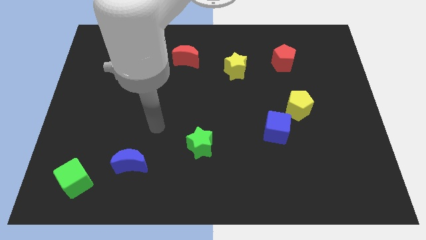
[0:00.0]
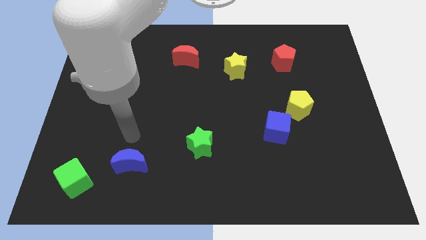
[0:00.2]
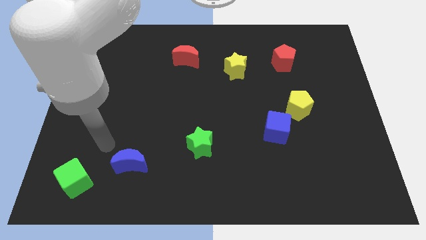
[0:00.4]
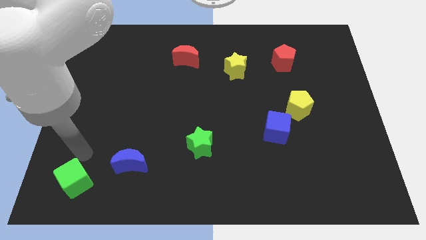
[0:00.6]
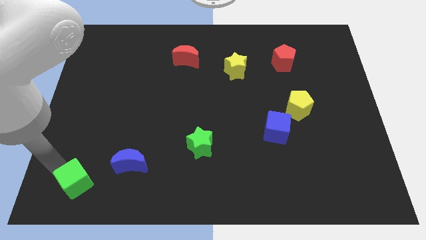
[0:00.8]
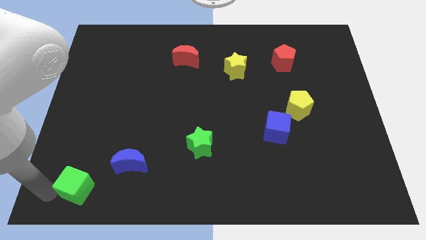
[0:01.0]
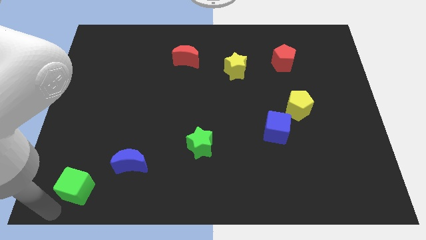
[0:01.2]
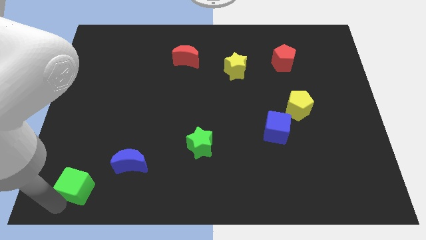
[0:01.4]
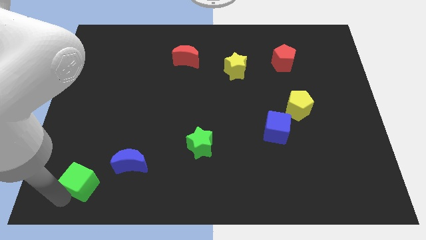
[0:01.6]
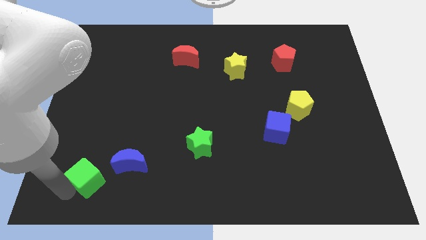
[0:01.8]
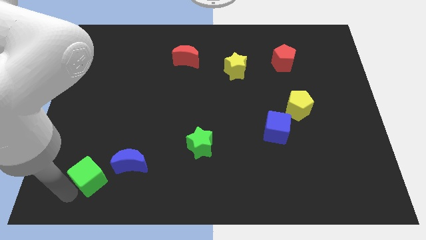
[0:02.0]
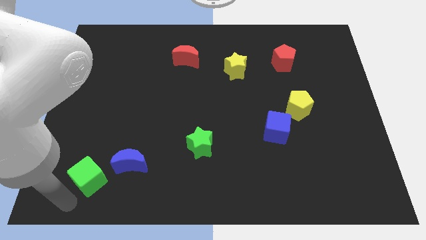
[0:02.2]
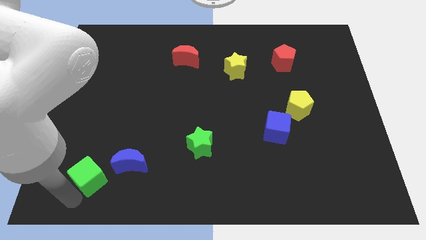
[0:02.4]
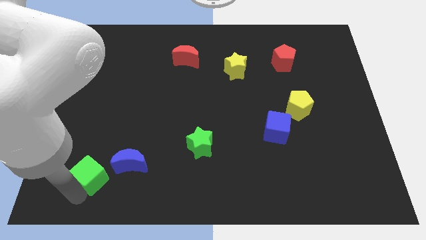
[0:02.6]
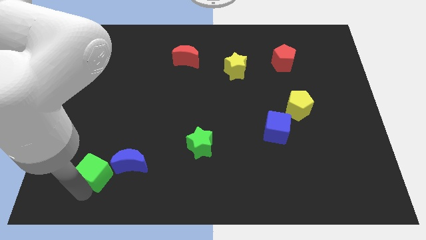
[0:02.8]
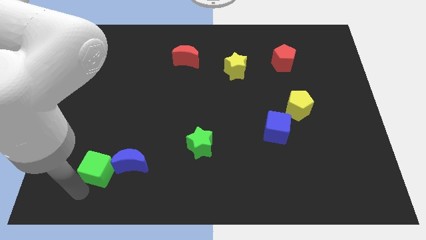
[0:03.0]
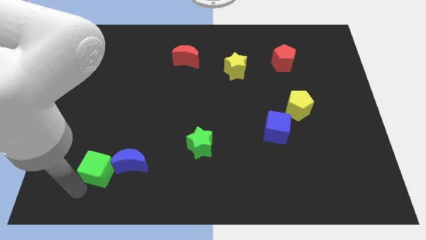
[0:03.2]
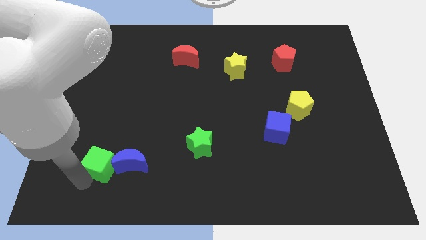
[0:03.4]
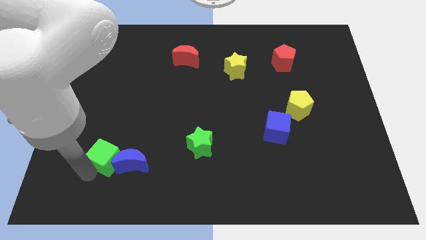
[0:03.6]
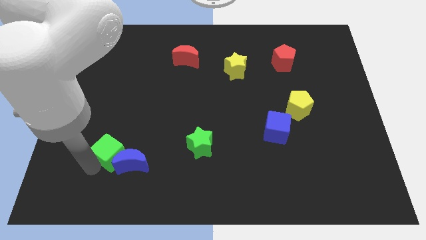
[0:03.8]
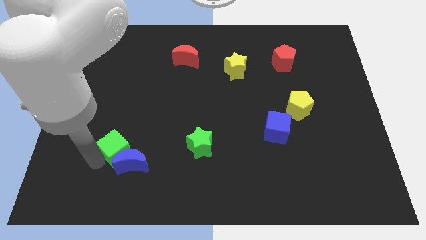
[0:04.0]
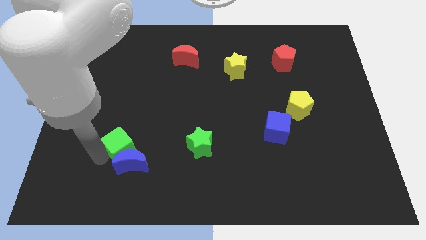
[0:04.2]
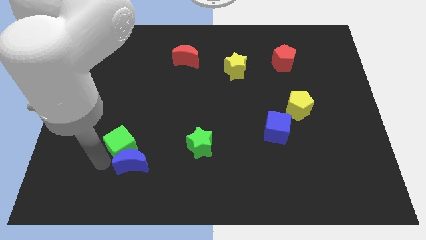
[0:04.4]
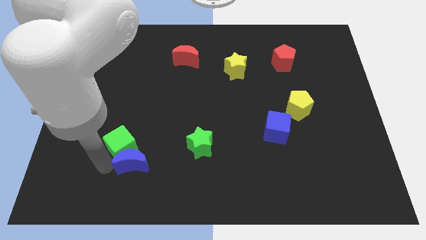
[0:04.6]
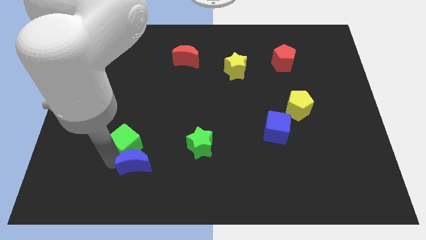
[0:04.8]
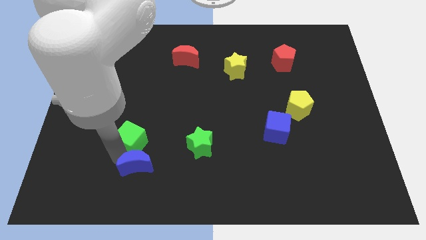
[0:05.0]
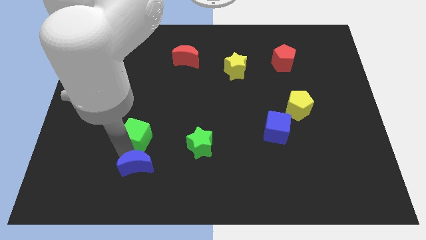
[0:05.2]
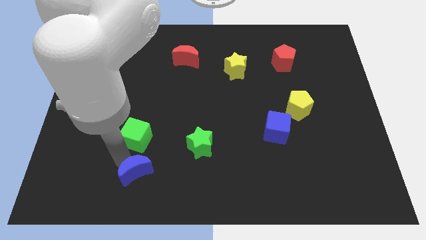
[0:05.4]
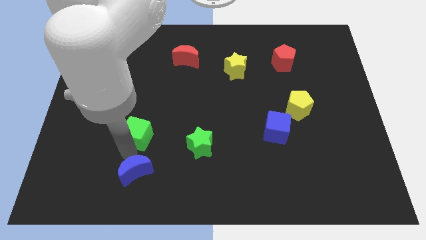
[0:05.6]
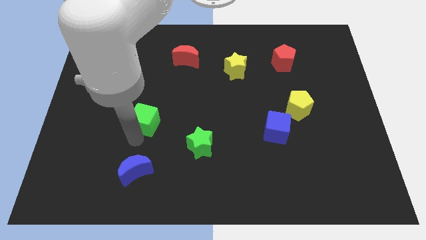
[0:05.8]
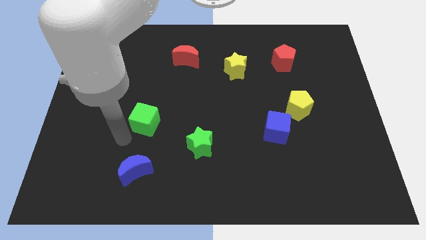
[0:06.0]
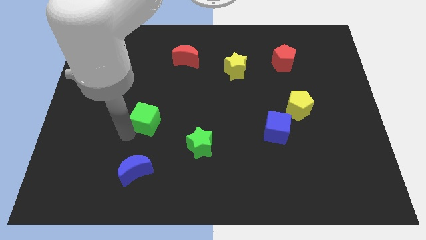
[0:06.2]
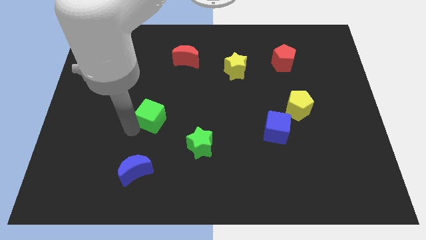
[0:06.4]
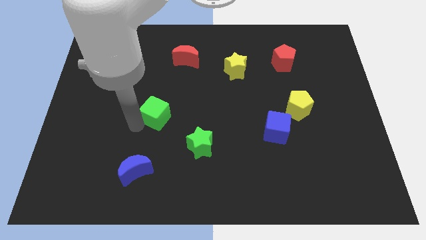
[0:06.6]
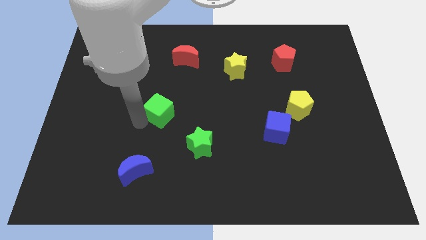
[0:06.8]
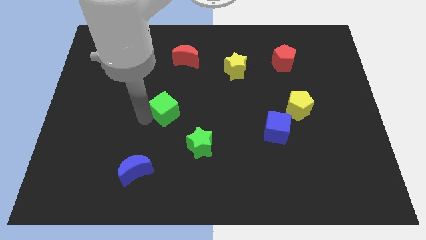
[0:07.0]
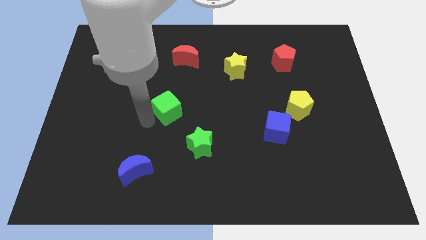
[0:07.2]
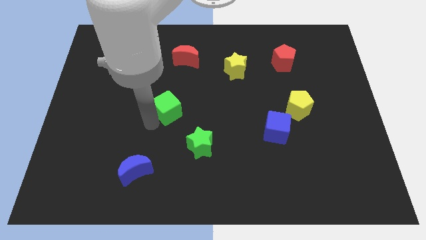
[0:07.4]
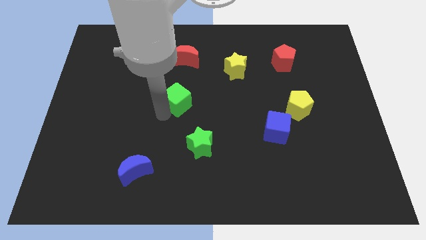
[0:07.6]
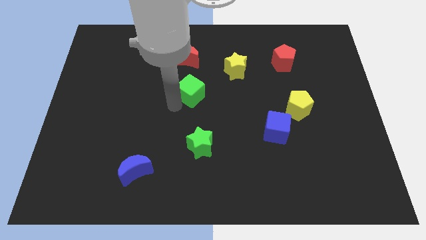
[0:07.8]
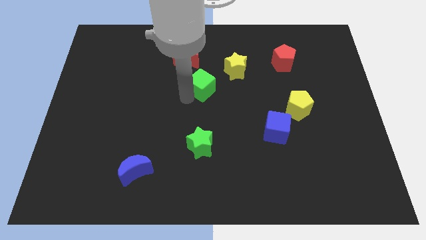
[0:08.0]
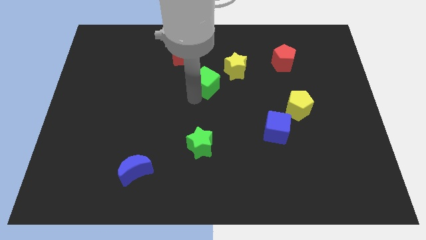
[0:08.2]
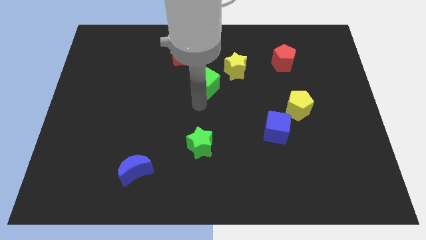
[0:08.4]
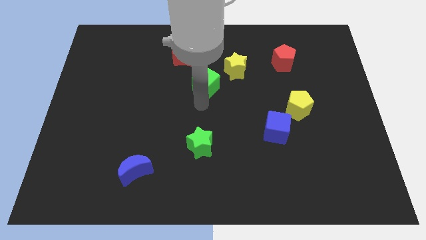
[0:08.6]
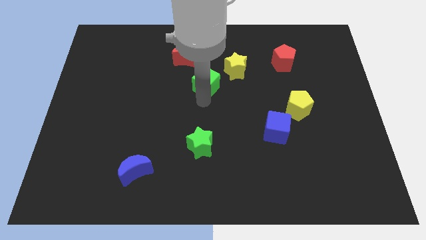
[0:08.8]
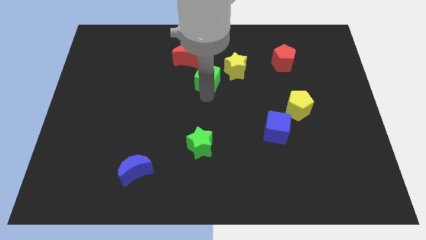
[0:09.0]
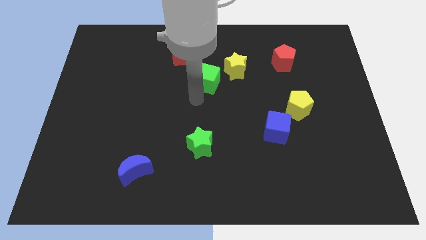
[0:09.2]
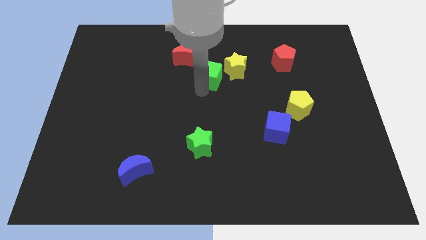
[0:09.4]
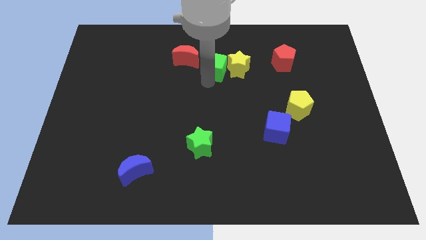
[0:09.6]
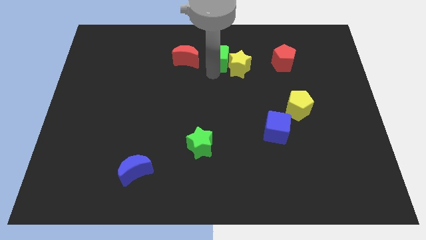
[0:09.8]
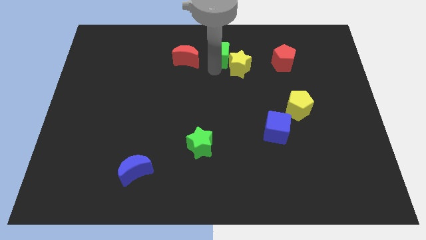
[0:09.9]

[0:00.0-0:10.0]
push the green cube to the towards your base

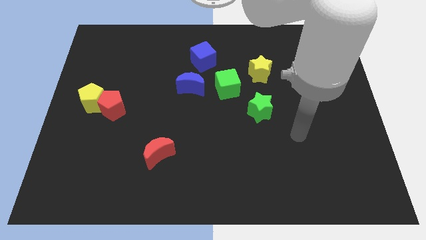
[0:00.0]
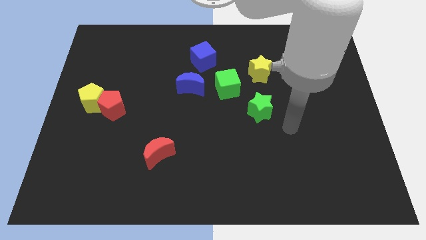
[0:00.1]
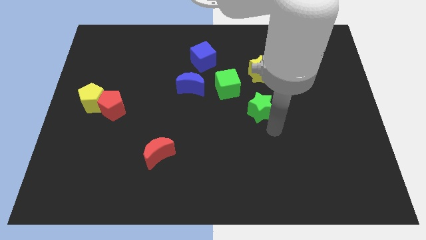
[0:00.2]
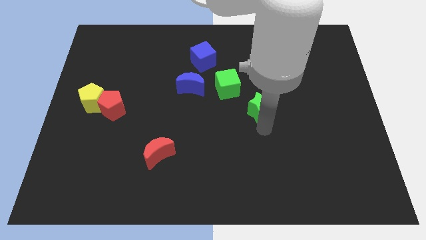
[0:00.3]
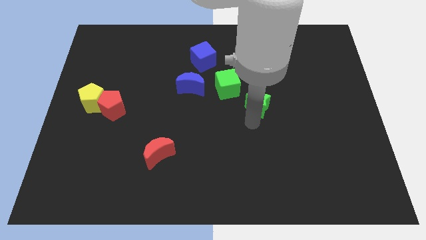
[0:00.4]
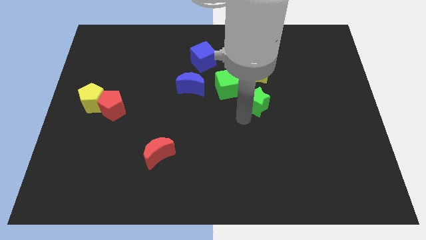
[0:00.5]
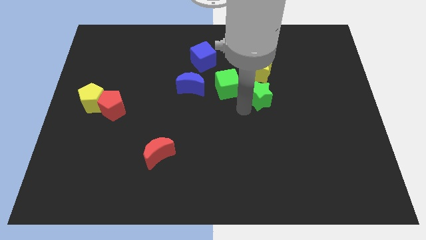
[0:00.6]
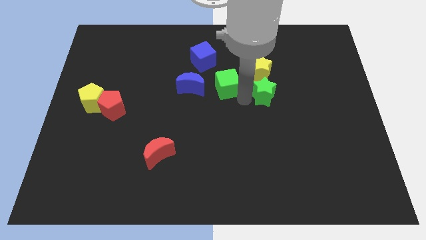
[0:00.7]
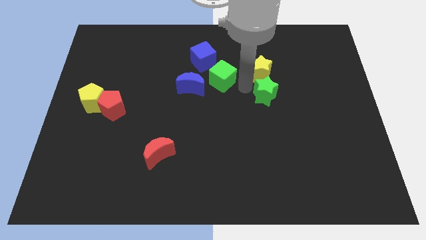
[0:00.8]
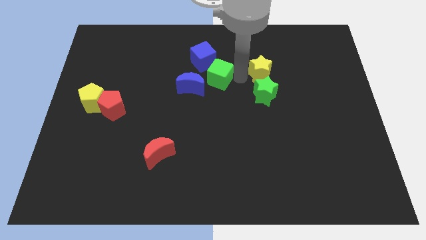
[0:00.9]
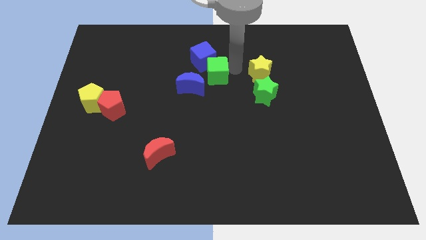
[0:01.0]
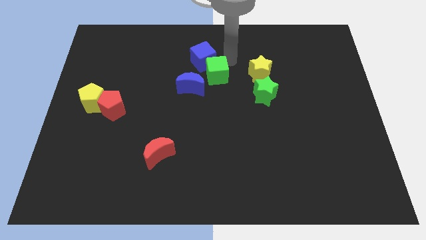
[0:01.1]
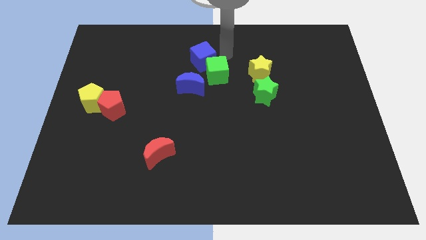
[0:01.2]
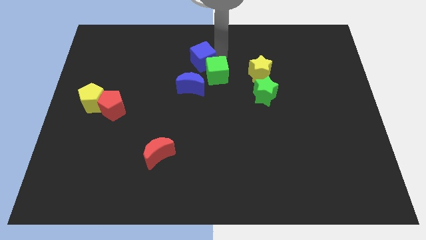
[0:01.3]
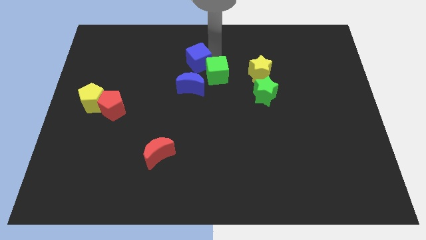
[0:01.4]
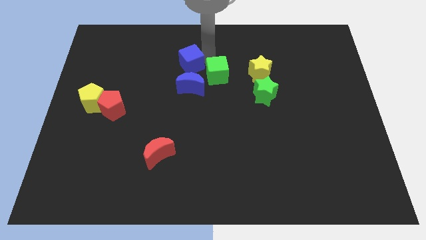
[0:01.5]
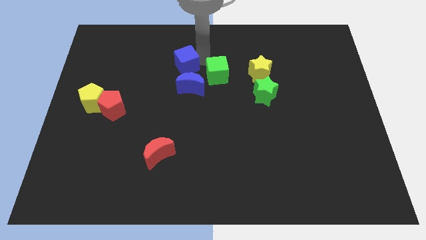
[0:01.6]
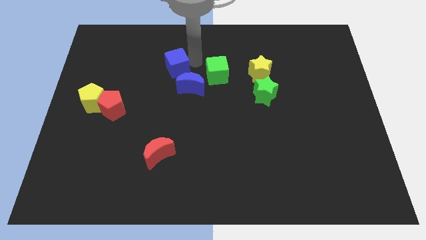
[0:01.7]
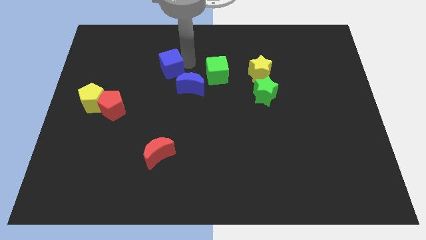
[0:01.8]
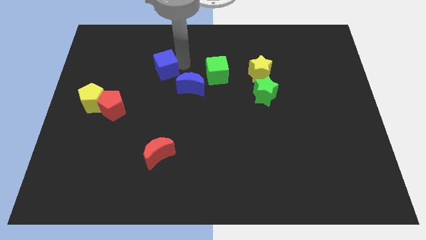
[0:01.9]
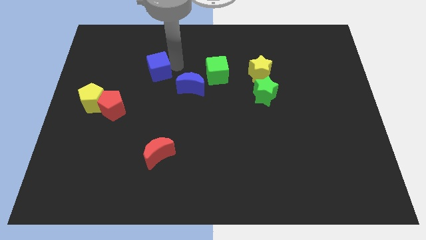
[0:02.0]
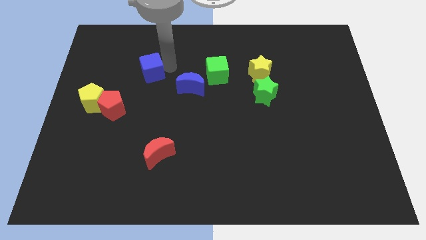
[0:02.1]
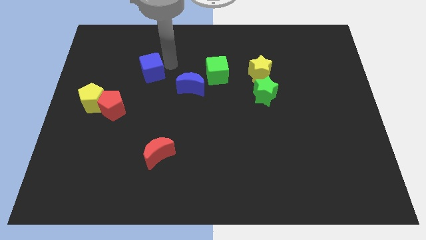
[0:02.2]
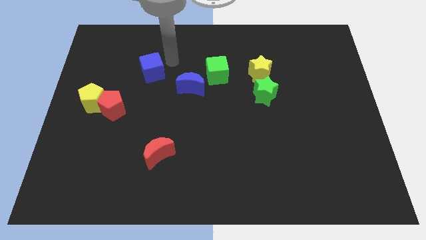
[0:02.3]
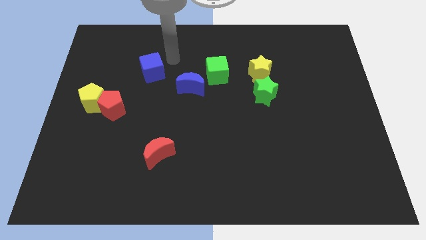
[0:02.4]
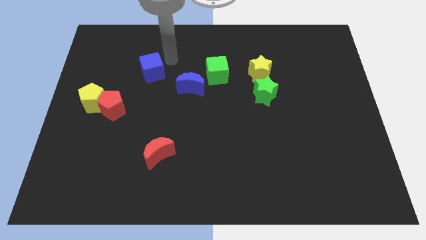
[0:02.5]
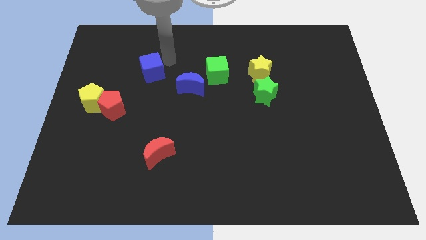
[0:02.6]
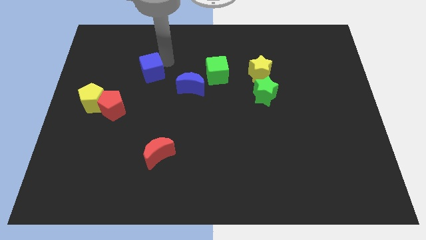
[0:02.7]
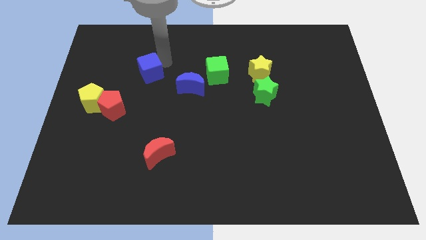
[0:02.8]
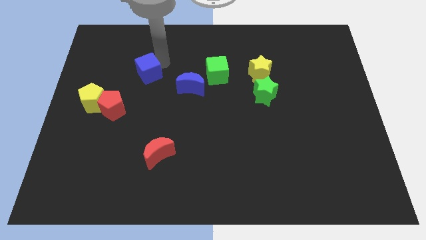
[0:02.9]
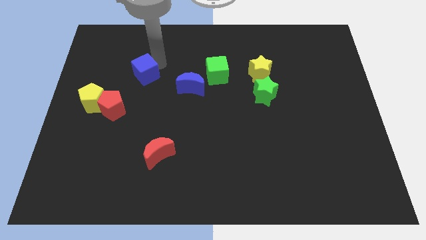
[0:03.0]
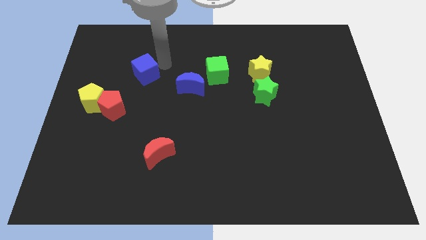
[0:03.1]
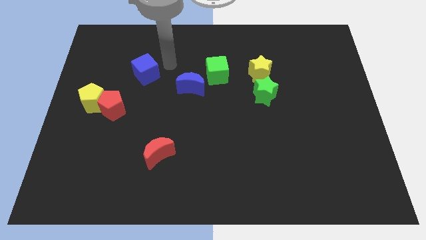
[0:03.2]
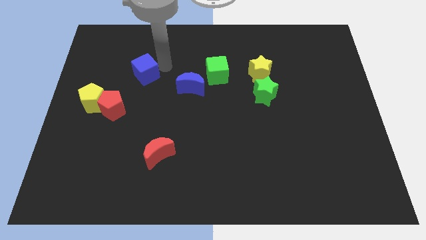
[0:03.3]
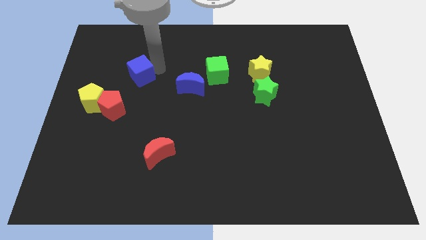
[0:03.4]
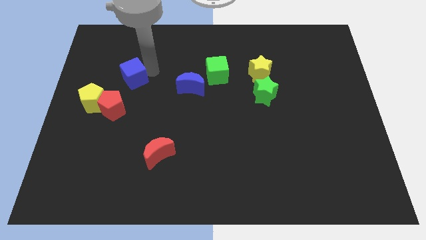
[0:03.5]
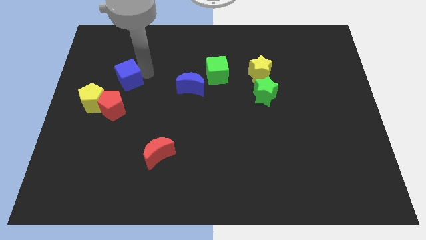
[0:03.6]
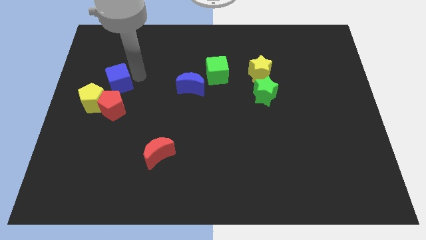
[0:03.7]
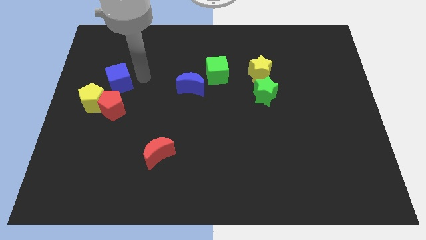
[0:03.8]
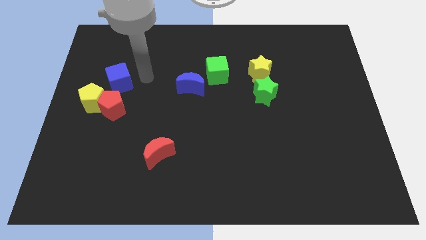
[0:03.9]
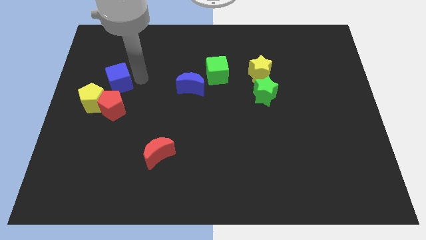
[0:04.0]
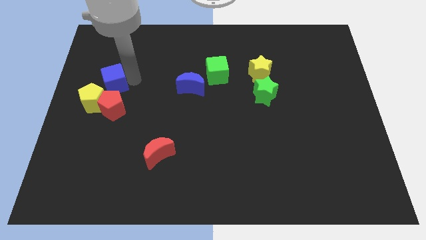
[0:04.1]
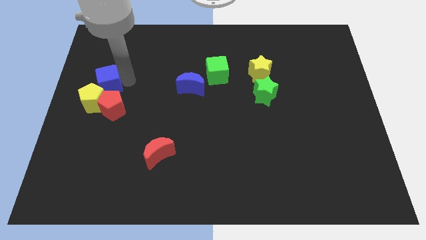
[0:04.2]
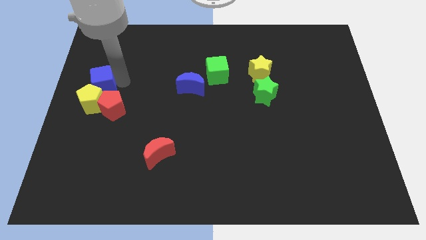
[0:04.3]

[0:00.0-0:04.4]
put the blue cube to the left side of the board
